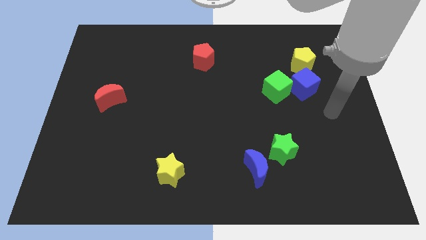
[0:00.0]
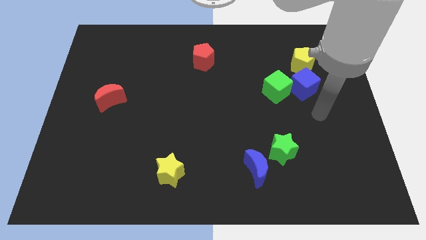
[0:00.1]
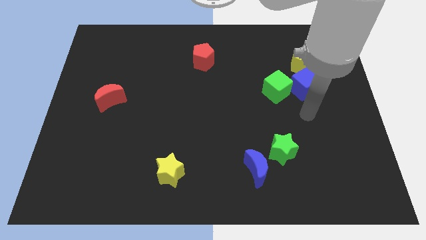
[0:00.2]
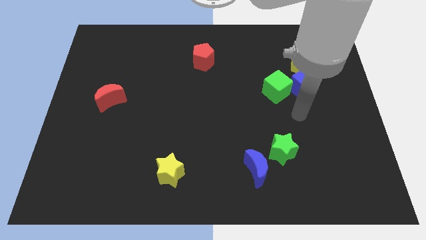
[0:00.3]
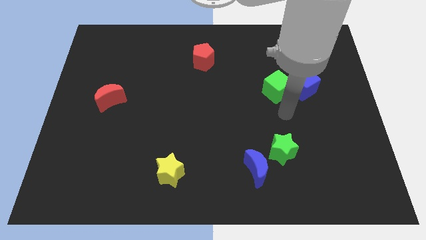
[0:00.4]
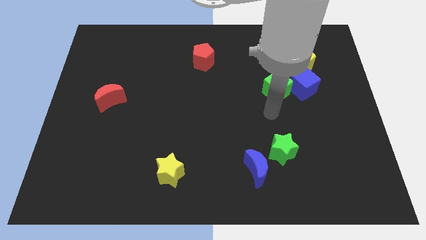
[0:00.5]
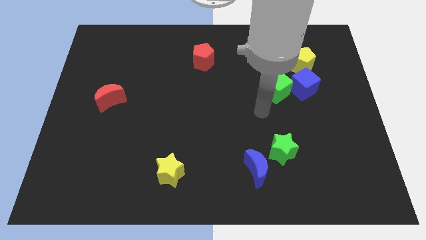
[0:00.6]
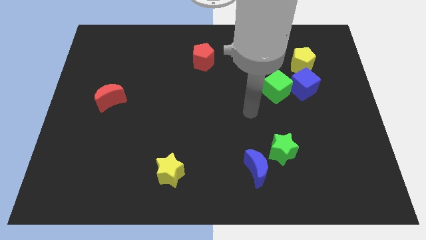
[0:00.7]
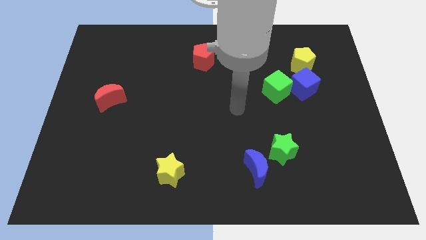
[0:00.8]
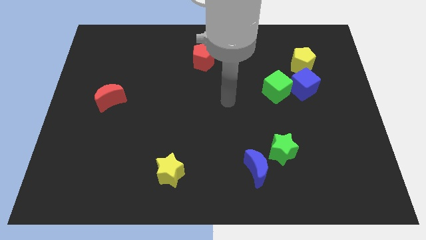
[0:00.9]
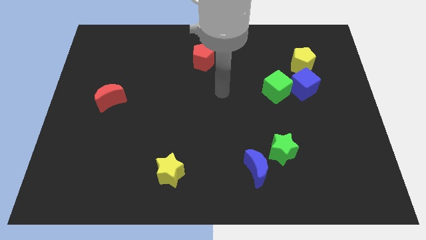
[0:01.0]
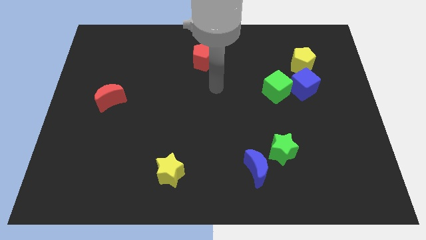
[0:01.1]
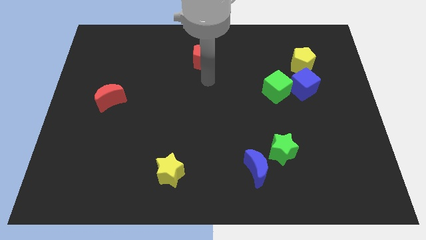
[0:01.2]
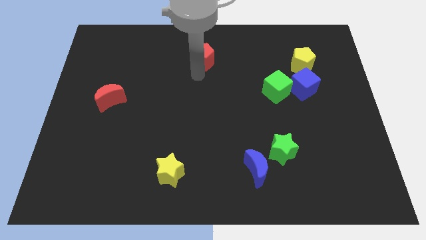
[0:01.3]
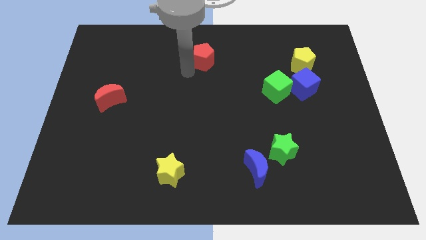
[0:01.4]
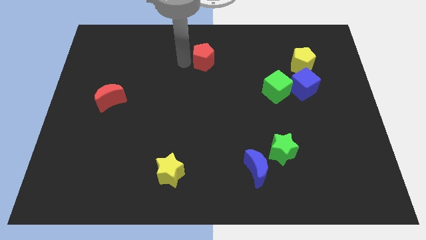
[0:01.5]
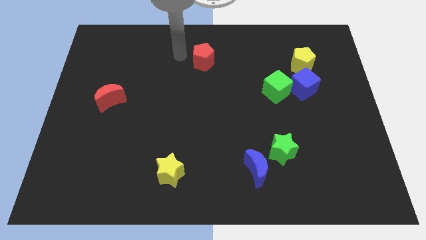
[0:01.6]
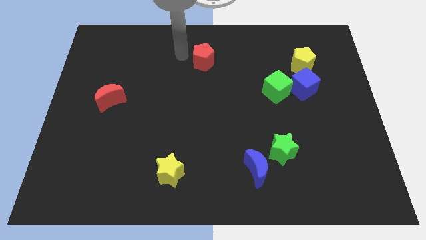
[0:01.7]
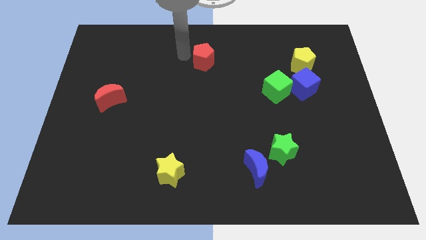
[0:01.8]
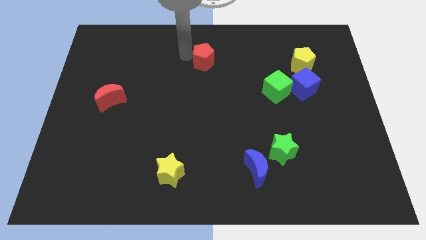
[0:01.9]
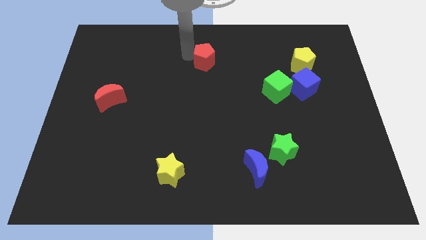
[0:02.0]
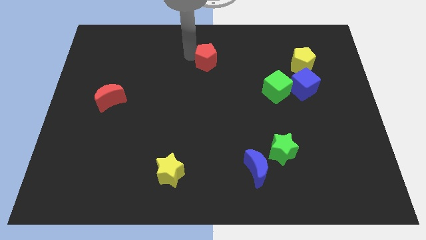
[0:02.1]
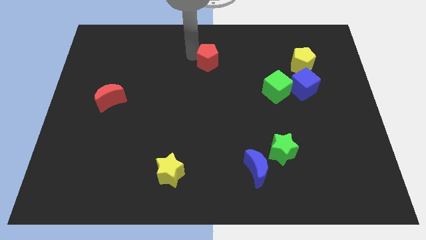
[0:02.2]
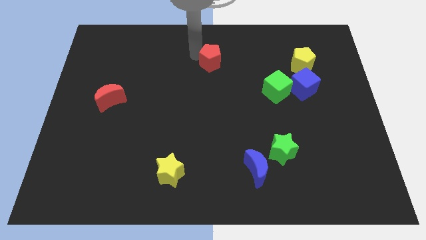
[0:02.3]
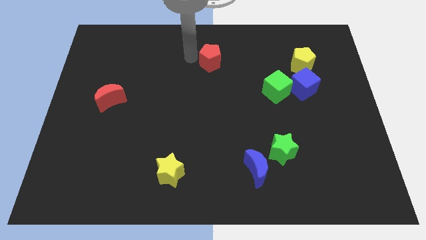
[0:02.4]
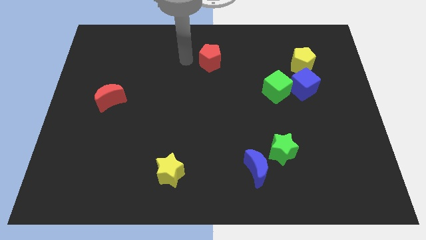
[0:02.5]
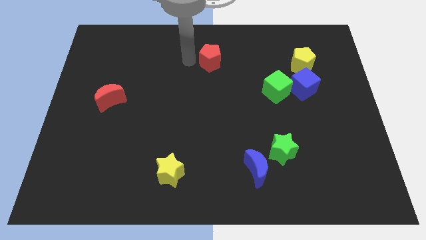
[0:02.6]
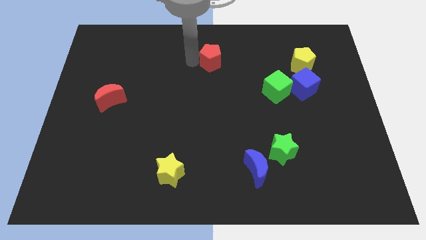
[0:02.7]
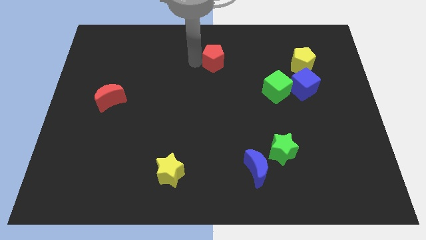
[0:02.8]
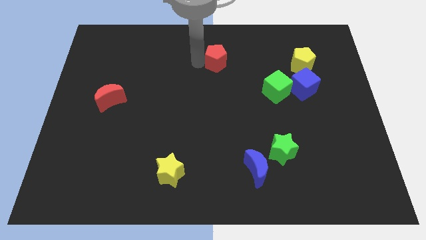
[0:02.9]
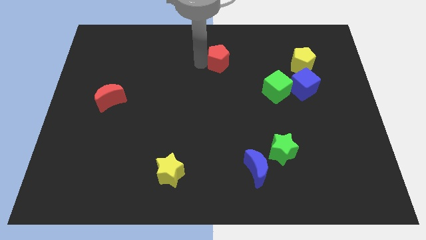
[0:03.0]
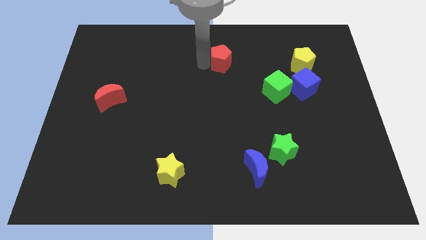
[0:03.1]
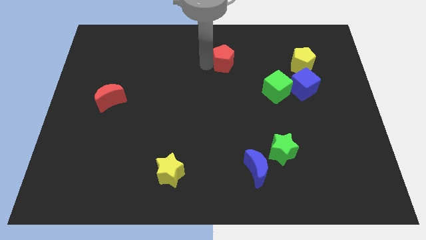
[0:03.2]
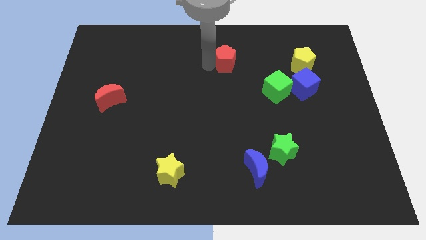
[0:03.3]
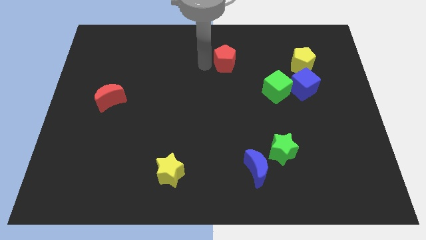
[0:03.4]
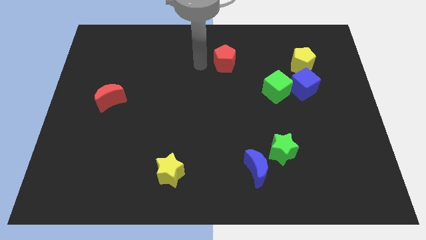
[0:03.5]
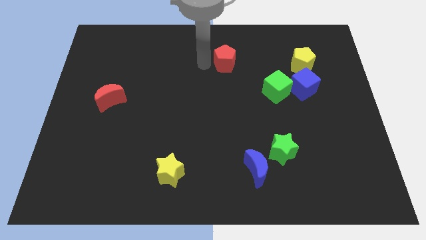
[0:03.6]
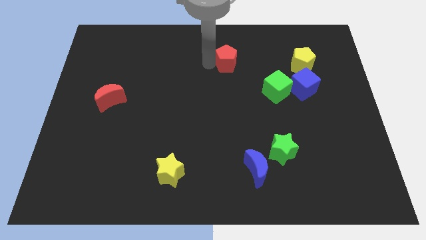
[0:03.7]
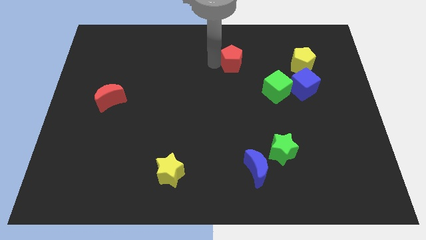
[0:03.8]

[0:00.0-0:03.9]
slightly slide the red pentagon right

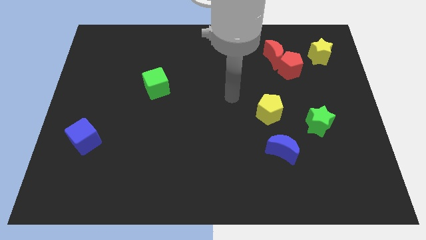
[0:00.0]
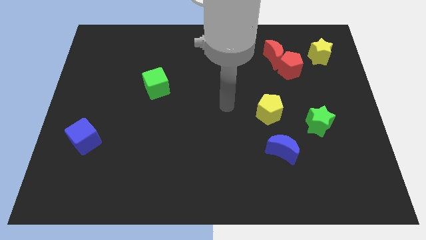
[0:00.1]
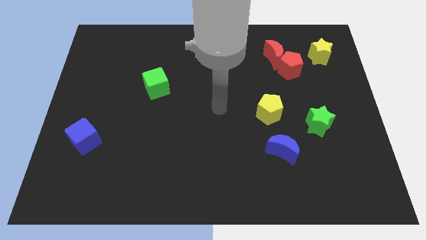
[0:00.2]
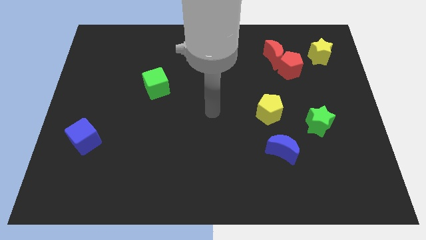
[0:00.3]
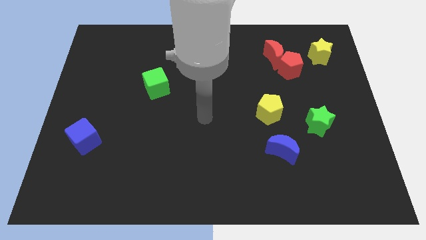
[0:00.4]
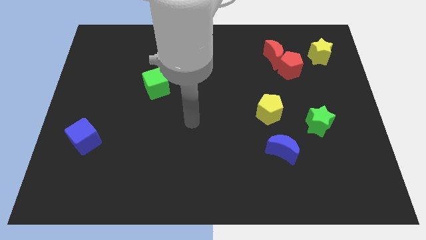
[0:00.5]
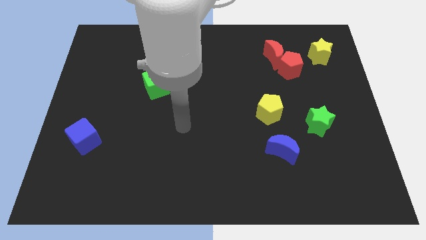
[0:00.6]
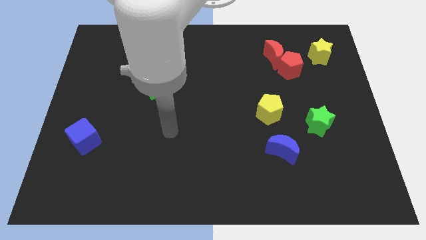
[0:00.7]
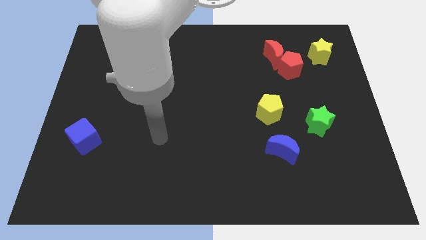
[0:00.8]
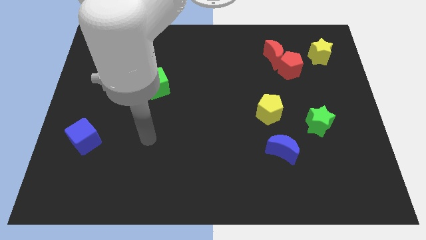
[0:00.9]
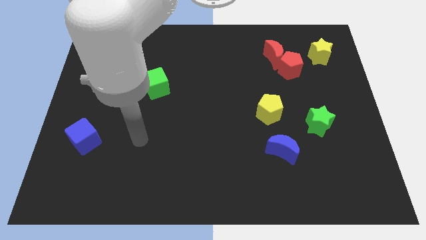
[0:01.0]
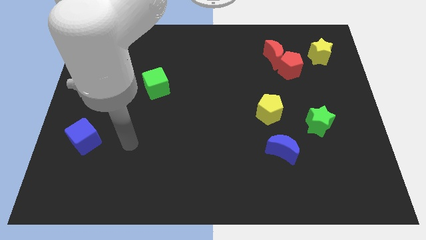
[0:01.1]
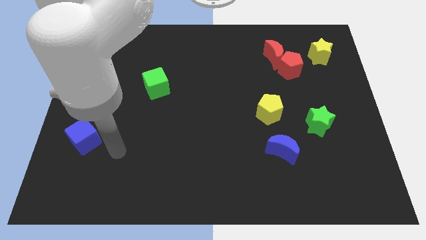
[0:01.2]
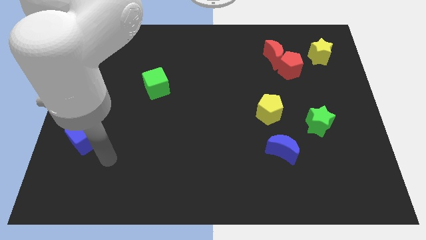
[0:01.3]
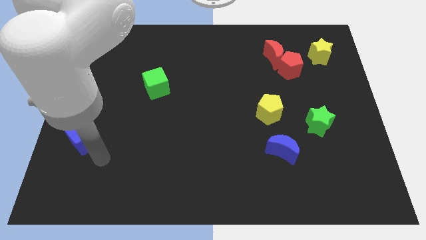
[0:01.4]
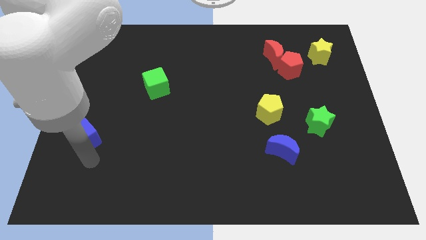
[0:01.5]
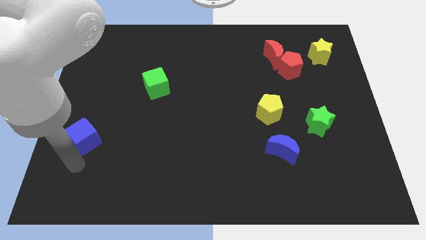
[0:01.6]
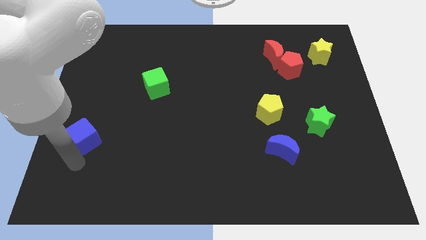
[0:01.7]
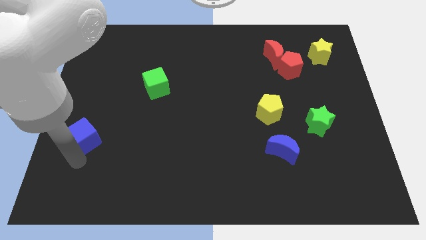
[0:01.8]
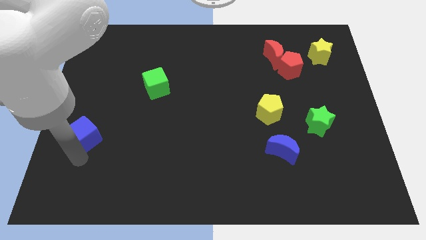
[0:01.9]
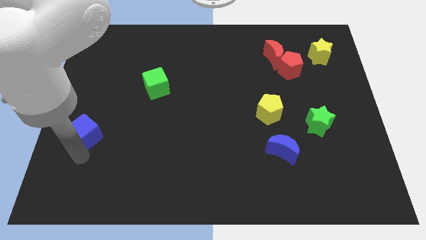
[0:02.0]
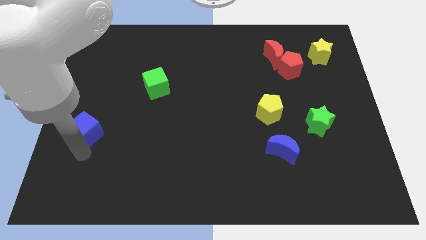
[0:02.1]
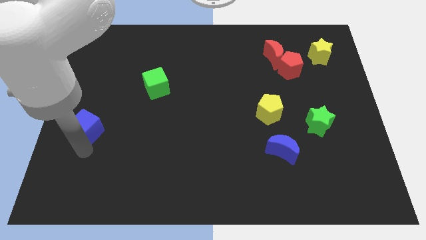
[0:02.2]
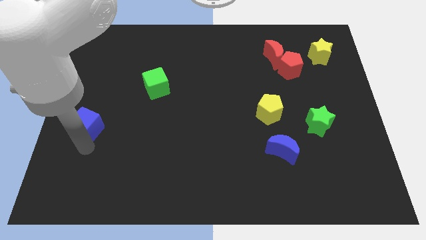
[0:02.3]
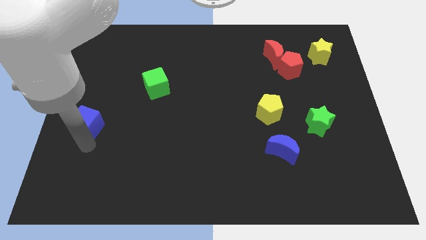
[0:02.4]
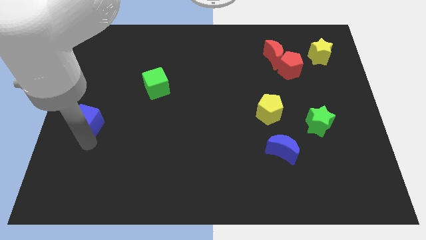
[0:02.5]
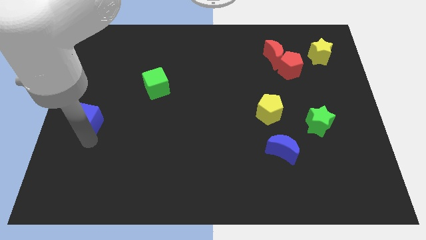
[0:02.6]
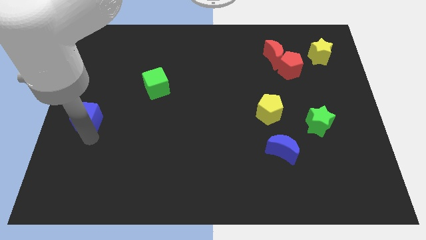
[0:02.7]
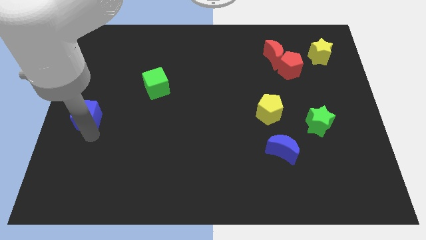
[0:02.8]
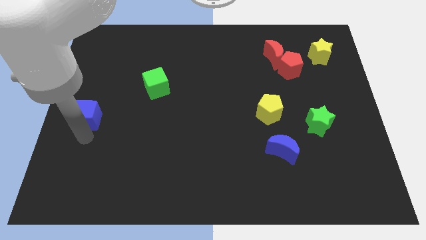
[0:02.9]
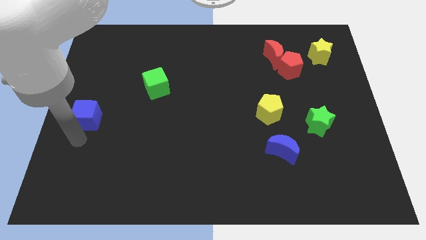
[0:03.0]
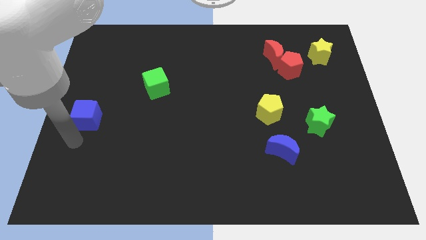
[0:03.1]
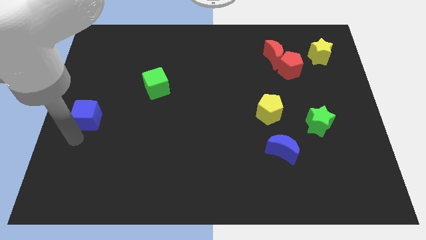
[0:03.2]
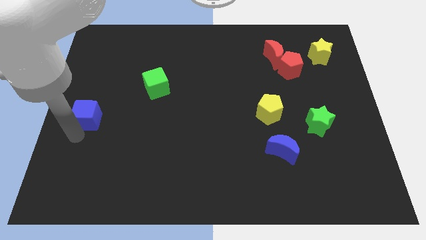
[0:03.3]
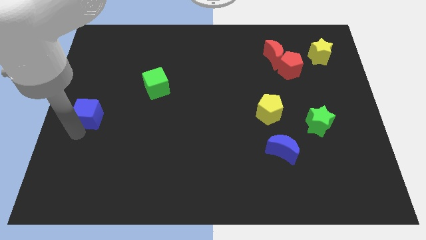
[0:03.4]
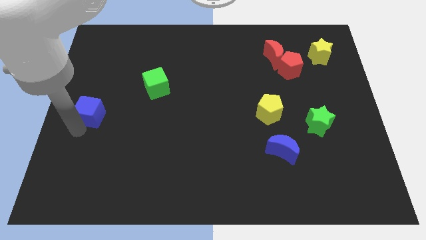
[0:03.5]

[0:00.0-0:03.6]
push the blue cube upwards a little

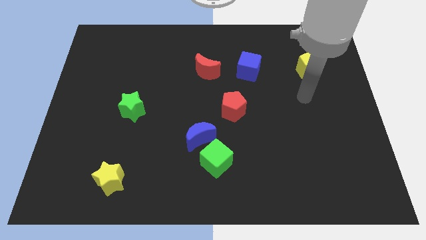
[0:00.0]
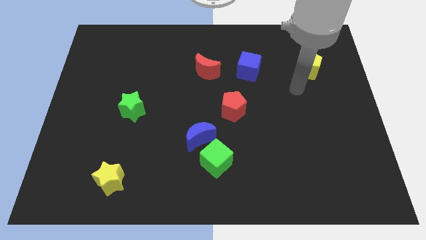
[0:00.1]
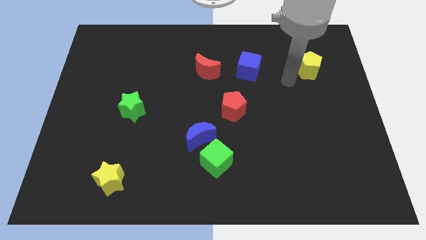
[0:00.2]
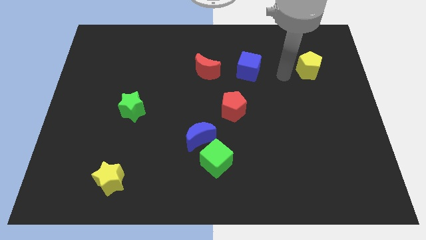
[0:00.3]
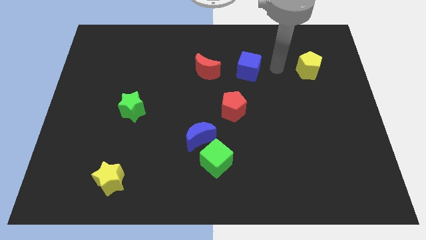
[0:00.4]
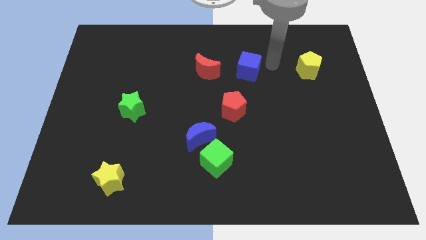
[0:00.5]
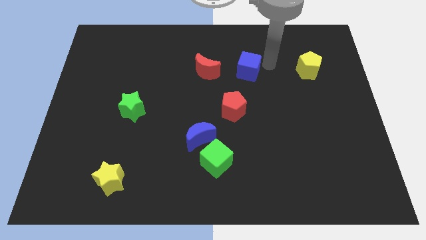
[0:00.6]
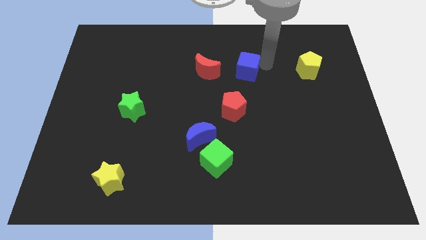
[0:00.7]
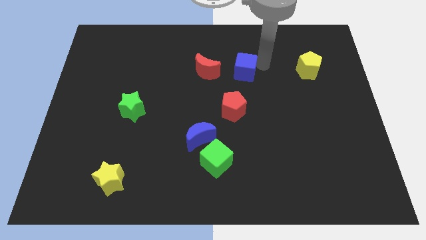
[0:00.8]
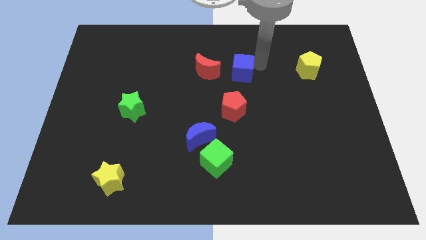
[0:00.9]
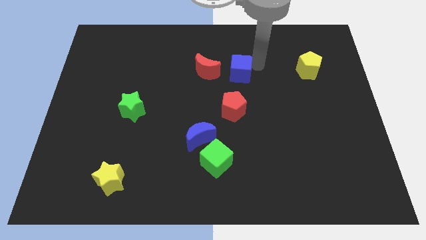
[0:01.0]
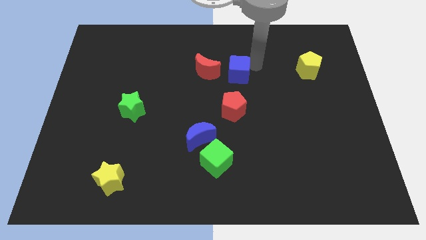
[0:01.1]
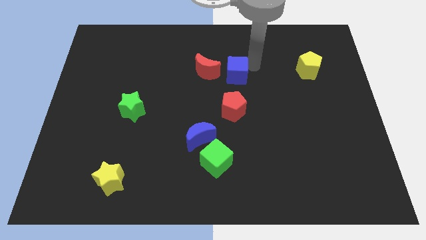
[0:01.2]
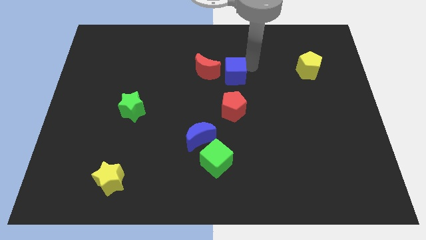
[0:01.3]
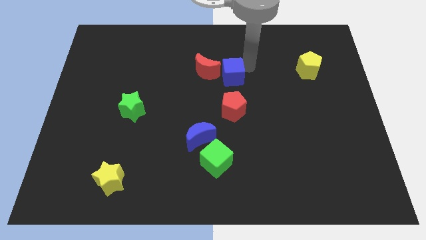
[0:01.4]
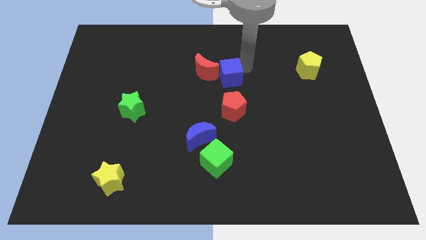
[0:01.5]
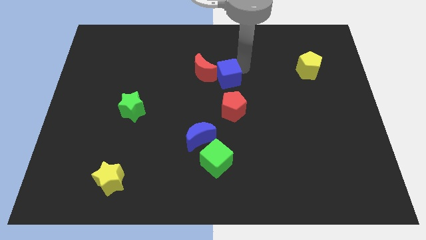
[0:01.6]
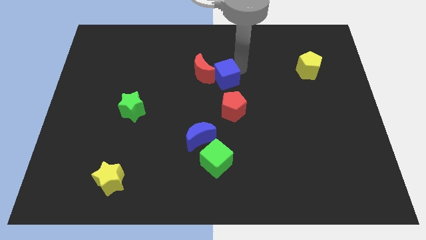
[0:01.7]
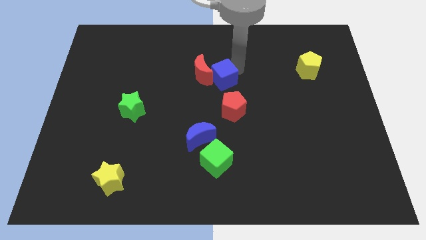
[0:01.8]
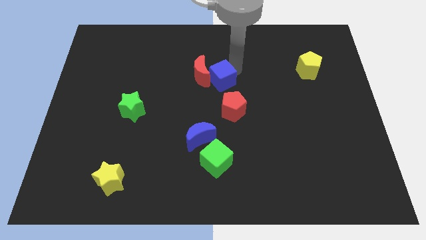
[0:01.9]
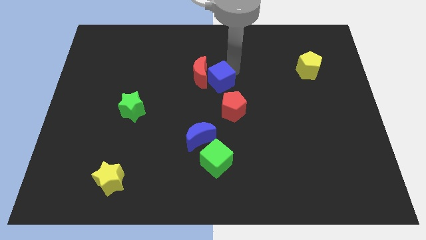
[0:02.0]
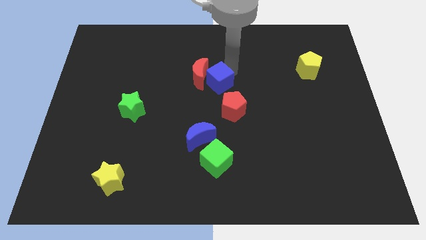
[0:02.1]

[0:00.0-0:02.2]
slide the blue cube to the left slightly
